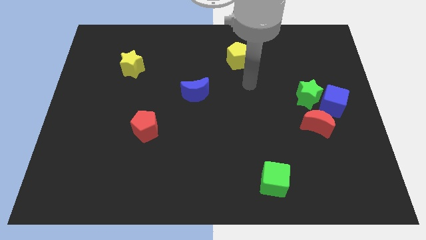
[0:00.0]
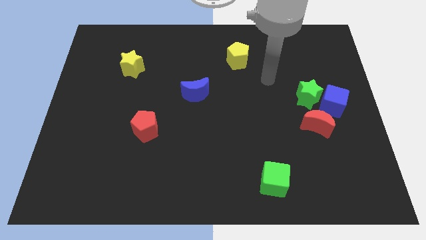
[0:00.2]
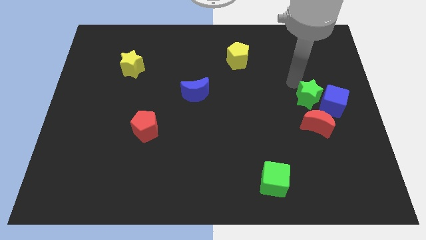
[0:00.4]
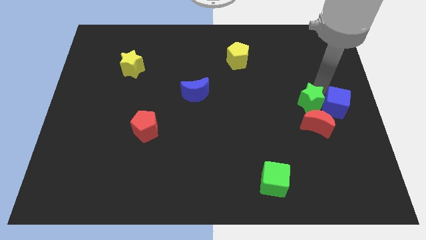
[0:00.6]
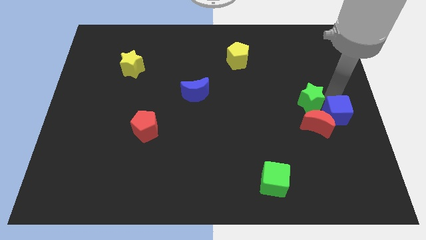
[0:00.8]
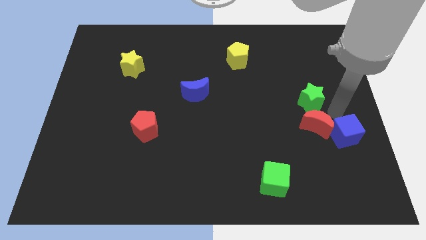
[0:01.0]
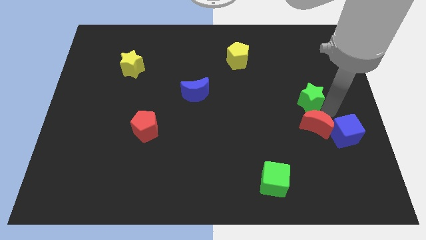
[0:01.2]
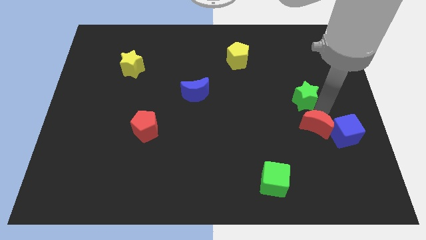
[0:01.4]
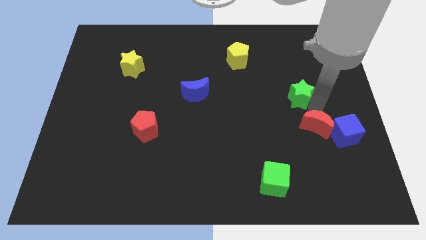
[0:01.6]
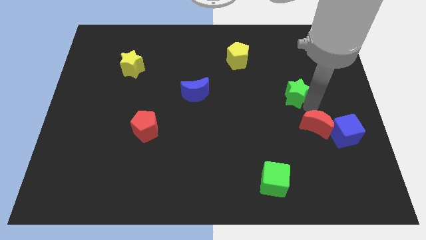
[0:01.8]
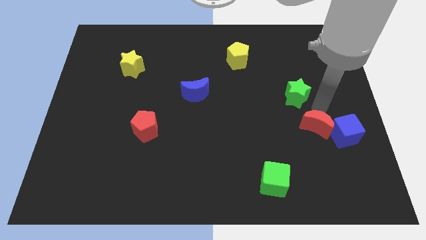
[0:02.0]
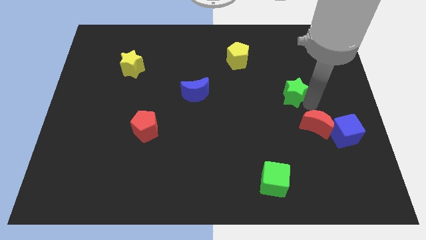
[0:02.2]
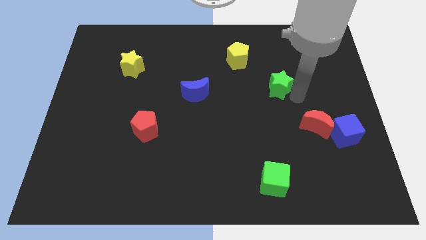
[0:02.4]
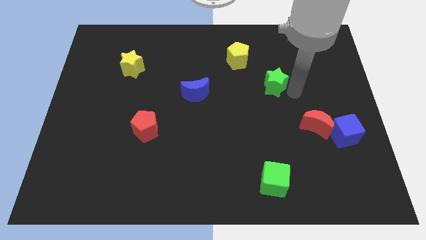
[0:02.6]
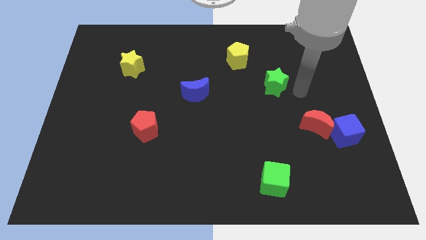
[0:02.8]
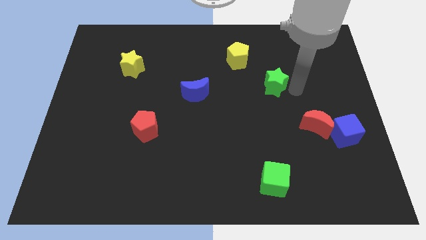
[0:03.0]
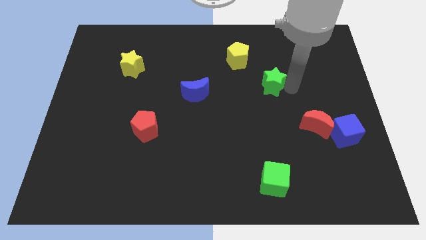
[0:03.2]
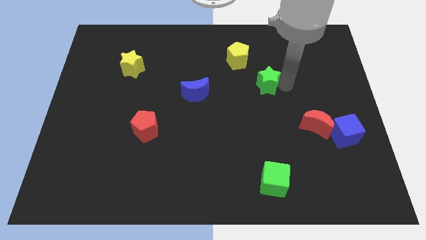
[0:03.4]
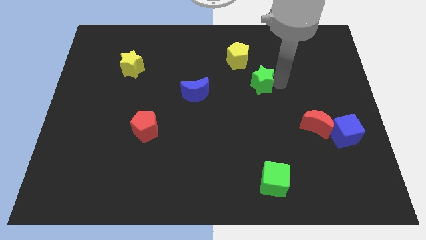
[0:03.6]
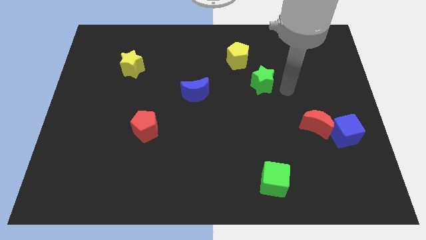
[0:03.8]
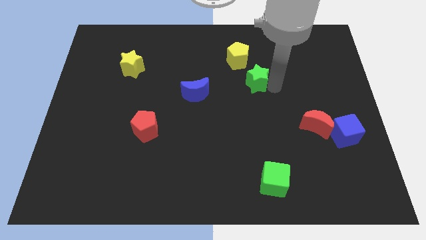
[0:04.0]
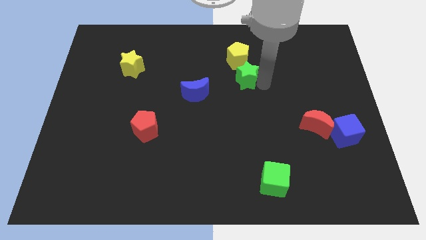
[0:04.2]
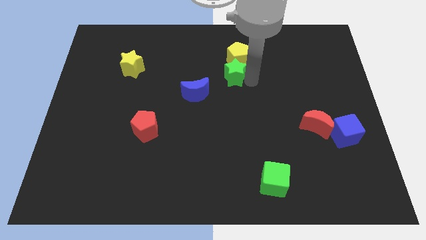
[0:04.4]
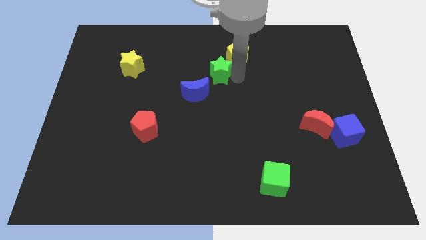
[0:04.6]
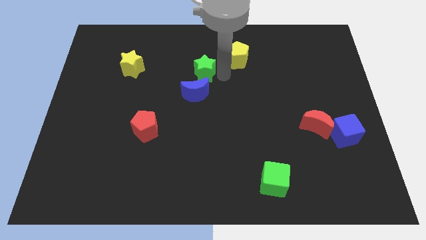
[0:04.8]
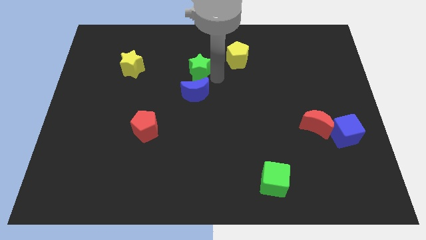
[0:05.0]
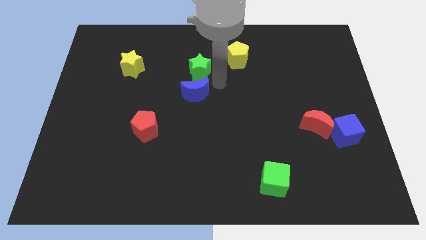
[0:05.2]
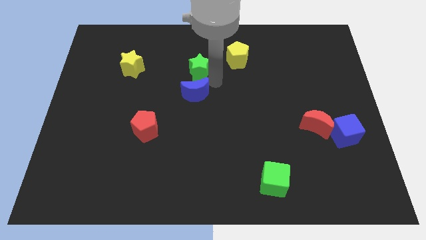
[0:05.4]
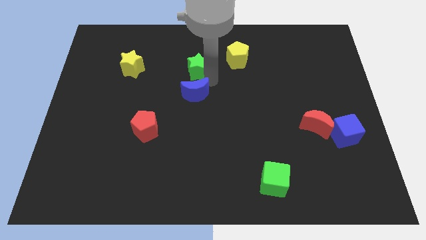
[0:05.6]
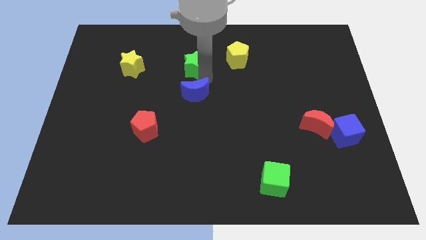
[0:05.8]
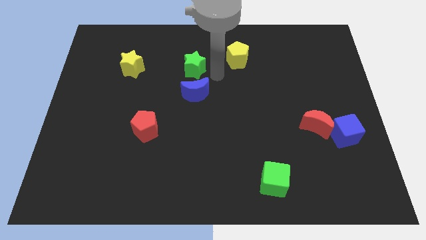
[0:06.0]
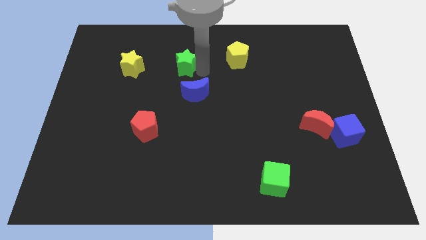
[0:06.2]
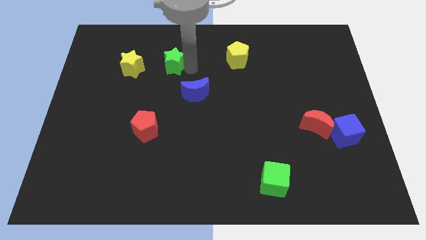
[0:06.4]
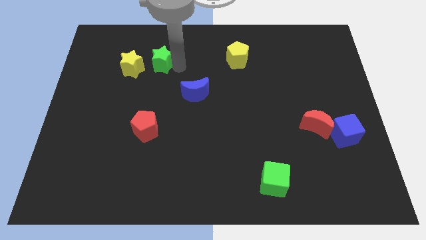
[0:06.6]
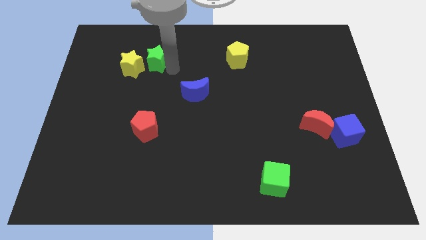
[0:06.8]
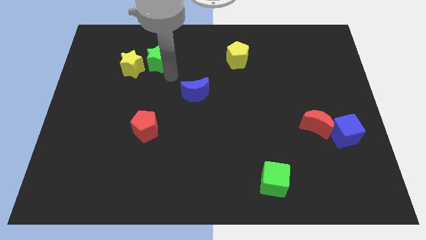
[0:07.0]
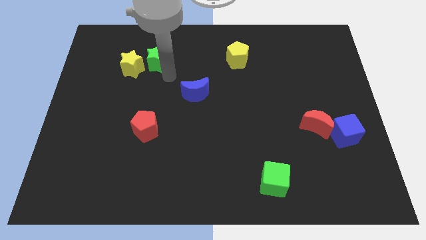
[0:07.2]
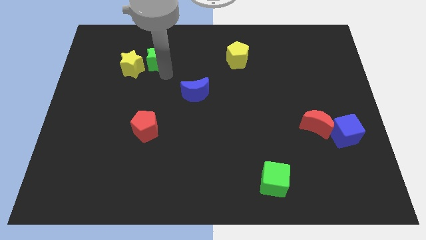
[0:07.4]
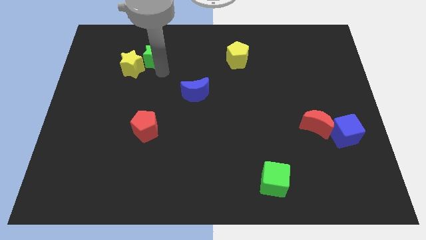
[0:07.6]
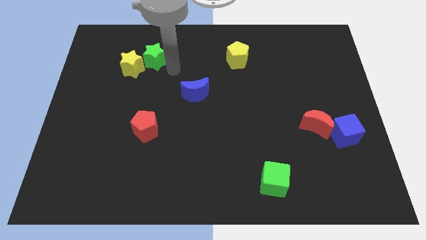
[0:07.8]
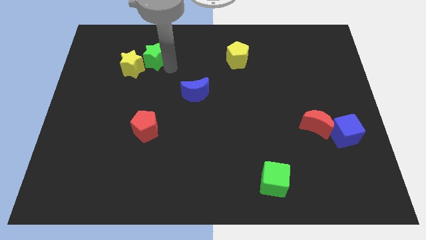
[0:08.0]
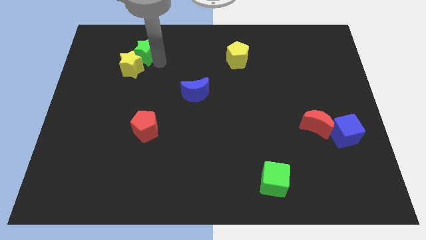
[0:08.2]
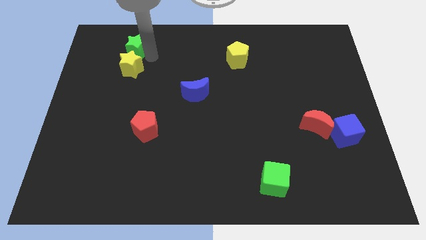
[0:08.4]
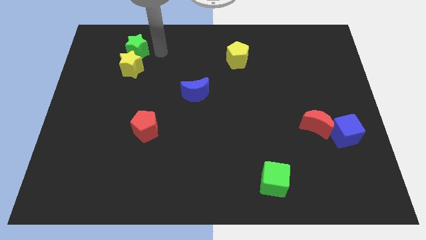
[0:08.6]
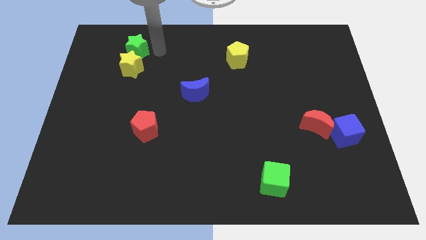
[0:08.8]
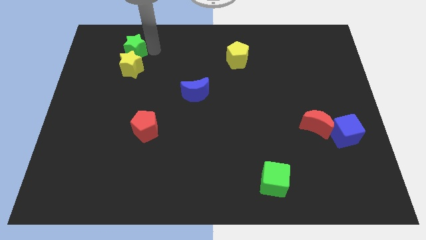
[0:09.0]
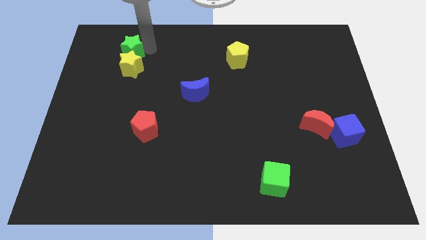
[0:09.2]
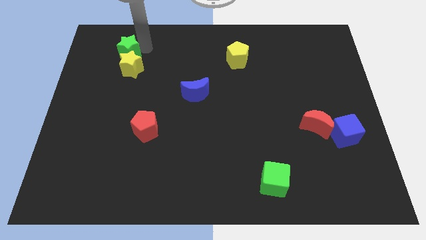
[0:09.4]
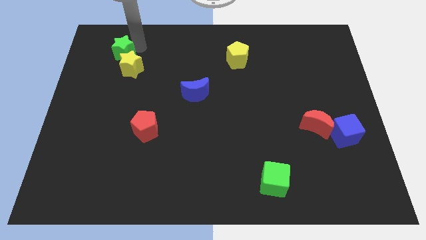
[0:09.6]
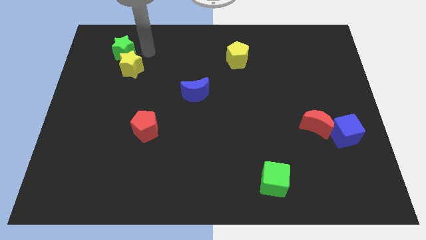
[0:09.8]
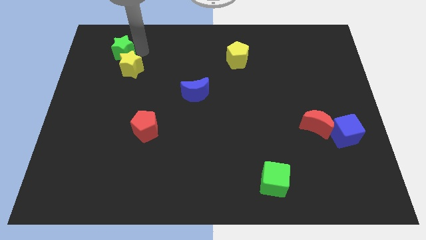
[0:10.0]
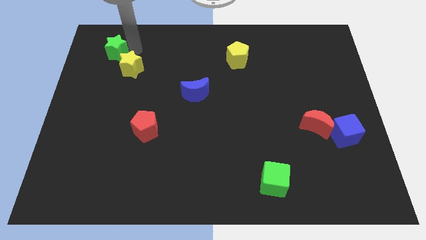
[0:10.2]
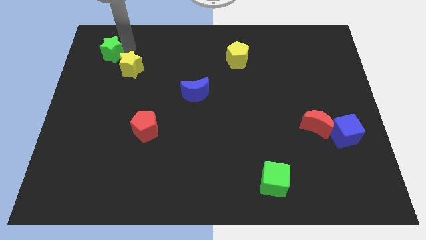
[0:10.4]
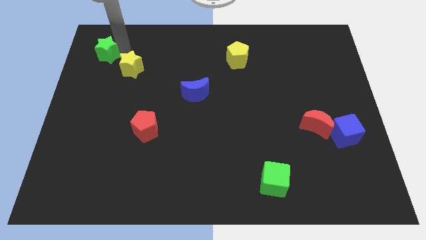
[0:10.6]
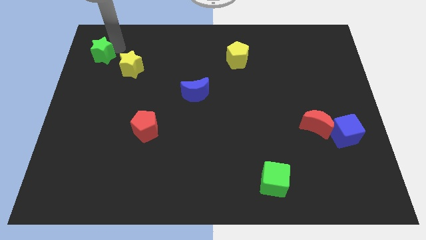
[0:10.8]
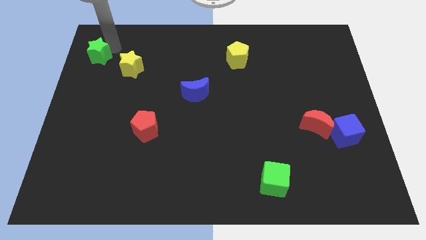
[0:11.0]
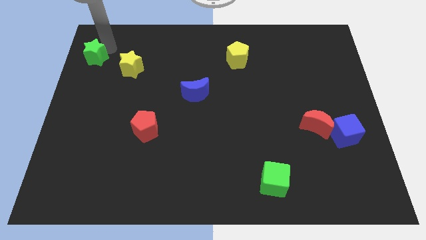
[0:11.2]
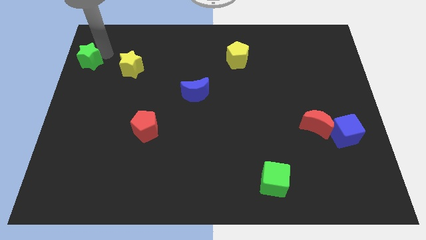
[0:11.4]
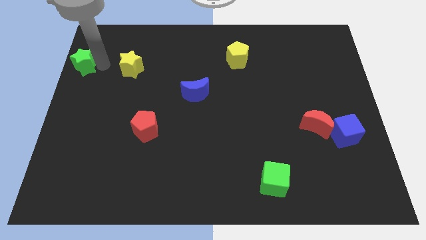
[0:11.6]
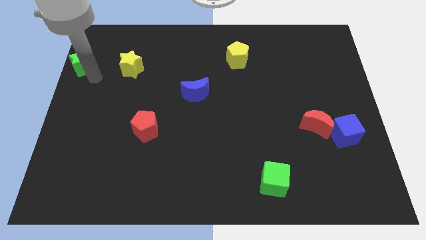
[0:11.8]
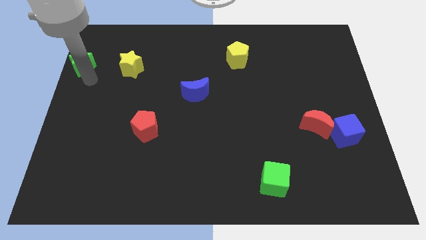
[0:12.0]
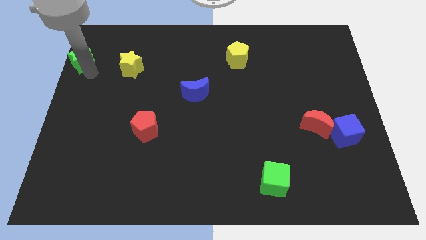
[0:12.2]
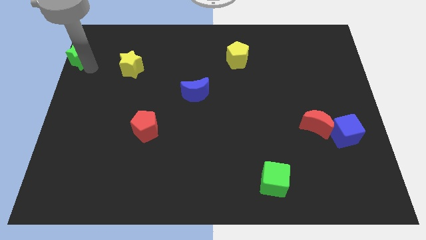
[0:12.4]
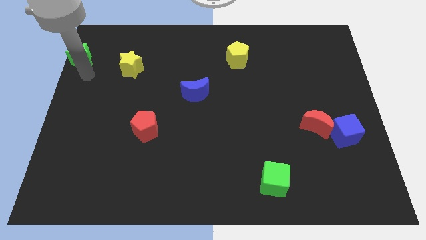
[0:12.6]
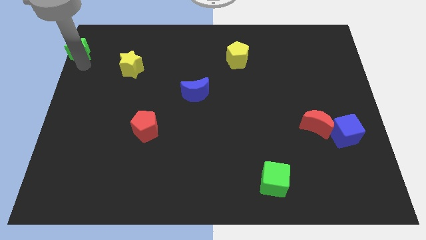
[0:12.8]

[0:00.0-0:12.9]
push the green star to the top left

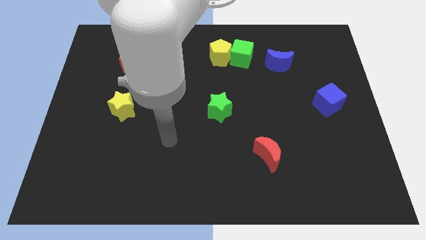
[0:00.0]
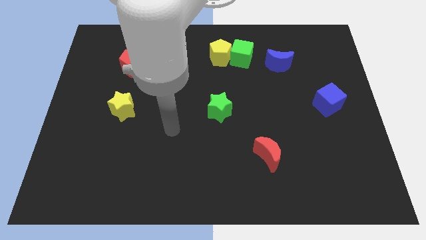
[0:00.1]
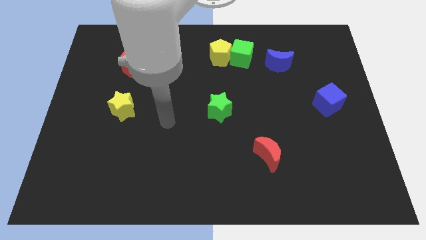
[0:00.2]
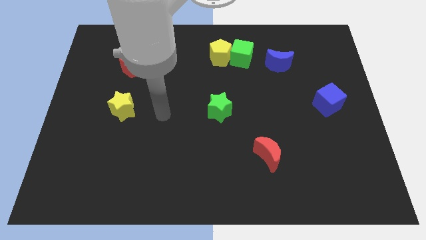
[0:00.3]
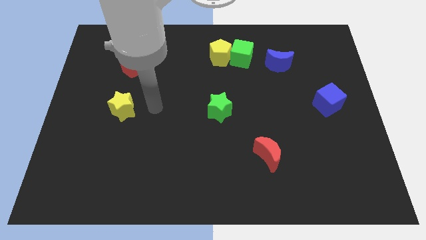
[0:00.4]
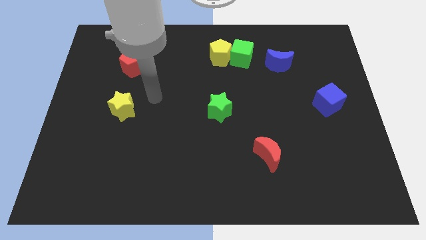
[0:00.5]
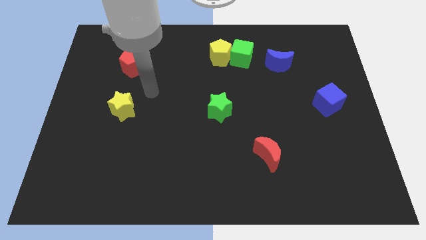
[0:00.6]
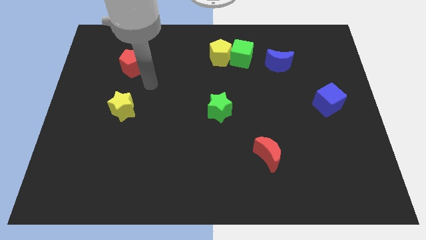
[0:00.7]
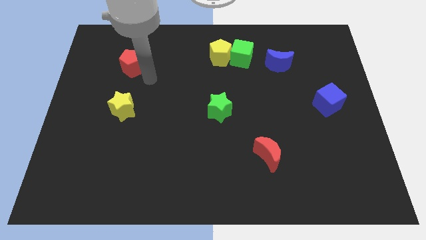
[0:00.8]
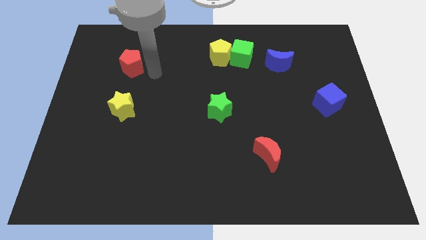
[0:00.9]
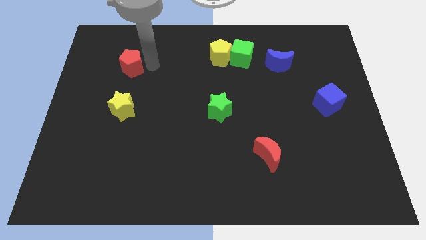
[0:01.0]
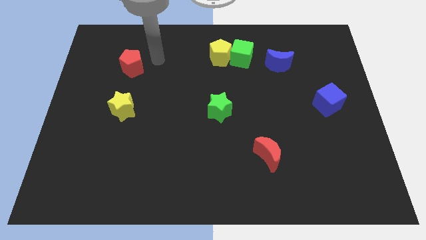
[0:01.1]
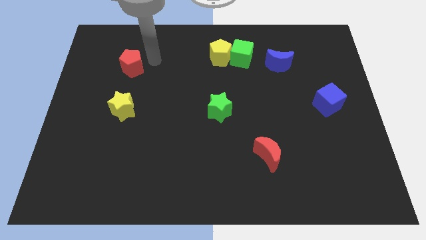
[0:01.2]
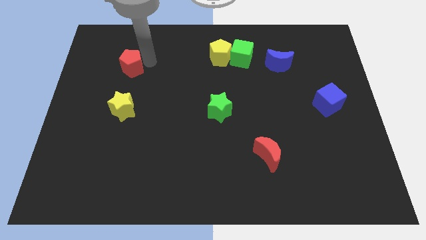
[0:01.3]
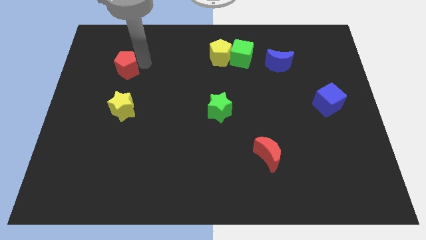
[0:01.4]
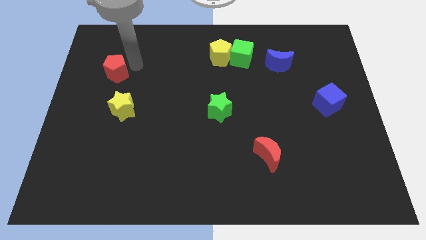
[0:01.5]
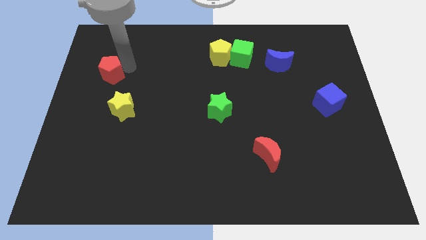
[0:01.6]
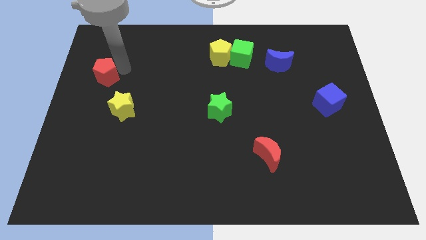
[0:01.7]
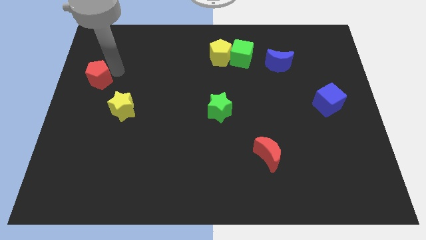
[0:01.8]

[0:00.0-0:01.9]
put the red pentagon to the center left
